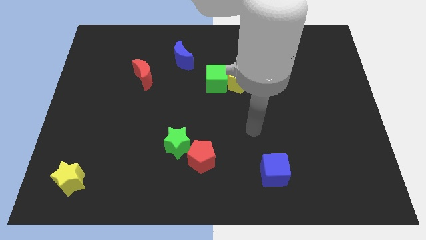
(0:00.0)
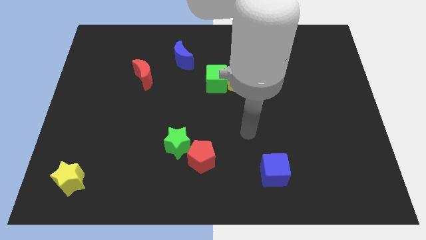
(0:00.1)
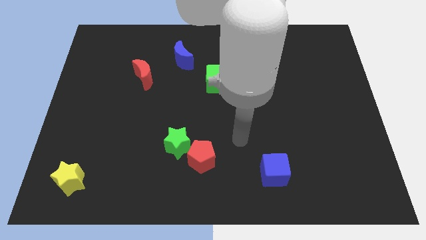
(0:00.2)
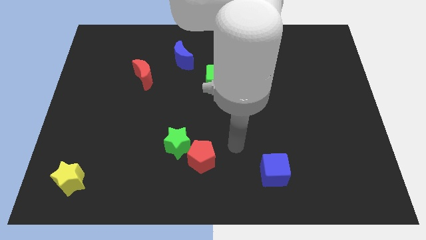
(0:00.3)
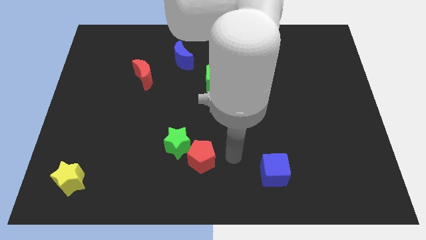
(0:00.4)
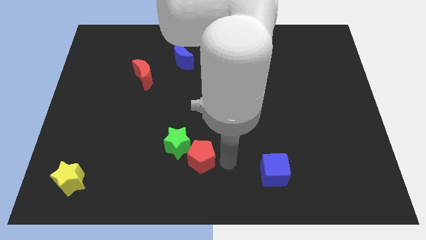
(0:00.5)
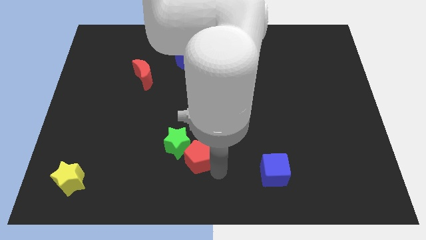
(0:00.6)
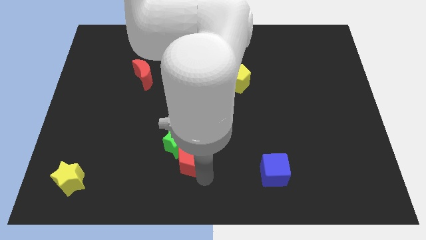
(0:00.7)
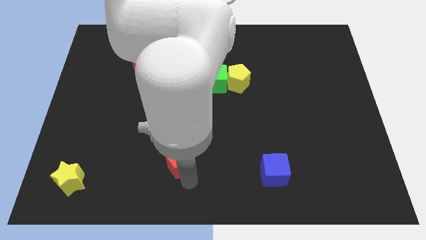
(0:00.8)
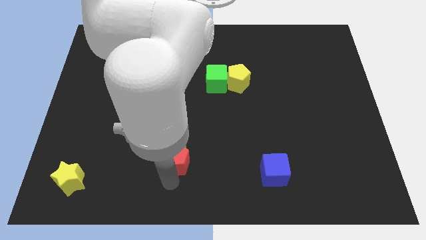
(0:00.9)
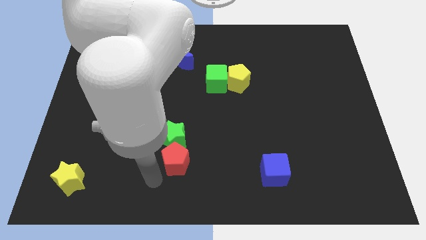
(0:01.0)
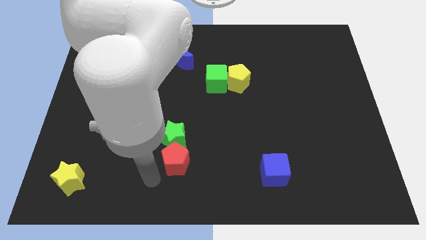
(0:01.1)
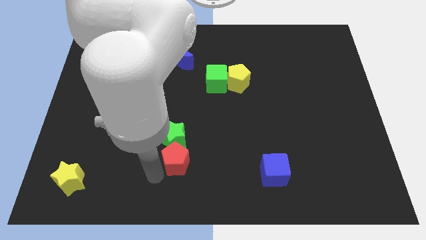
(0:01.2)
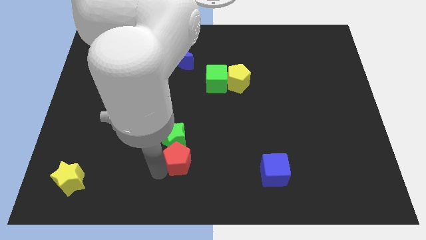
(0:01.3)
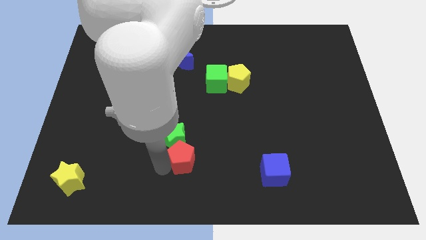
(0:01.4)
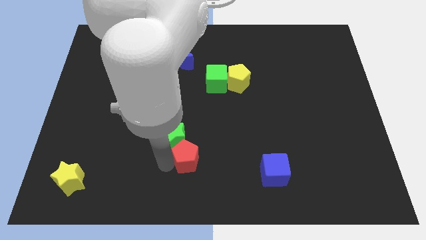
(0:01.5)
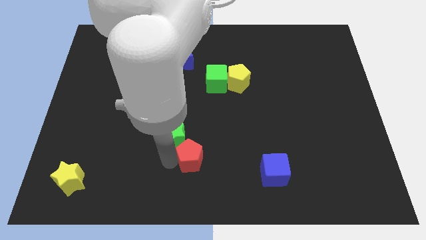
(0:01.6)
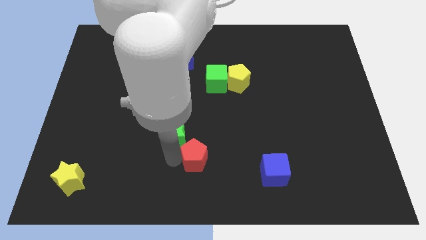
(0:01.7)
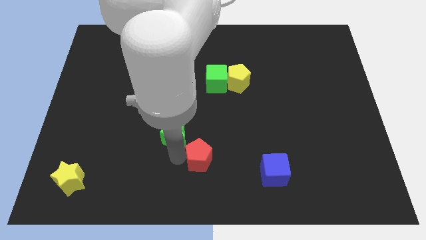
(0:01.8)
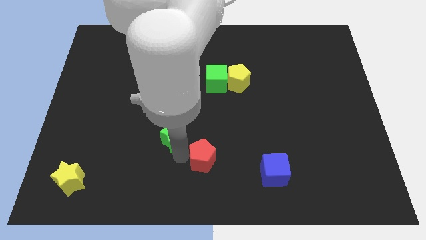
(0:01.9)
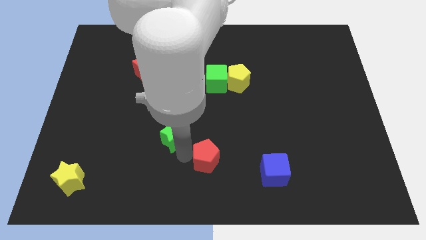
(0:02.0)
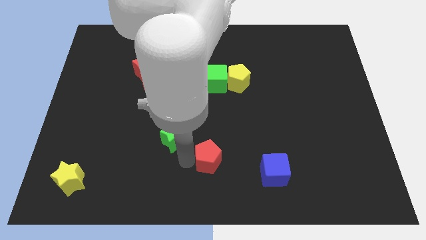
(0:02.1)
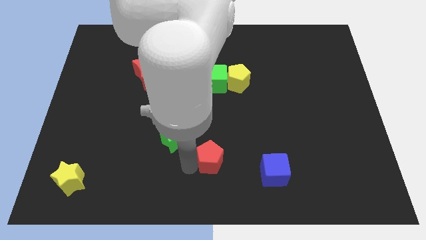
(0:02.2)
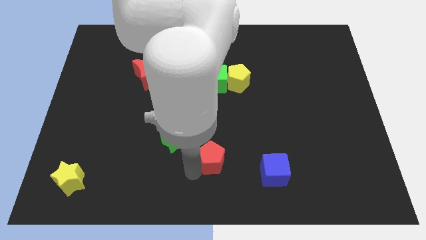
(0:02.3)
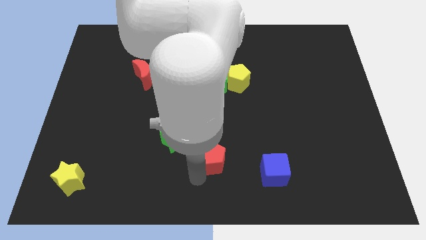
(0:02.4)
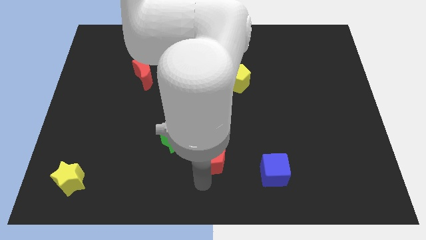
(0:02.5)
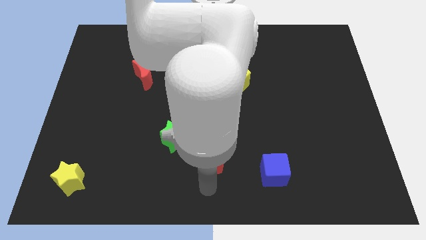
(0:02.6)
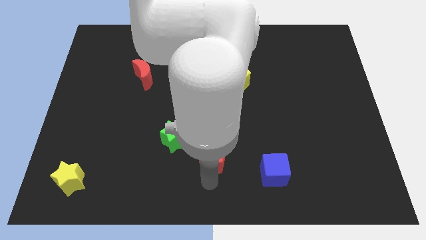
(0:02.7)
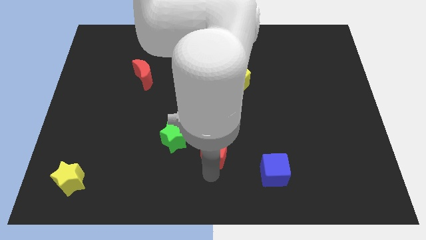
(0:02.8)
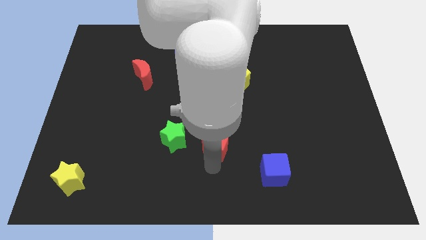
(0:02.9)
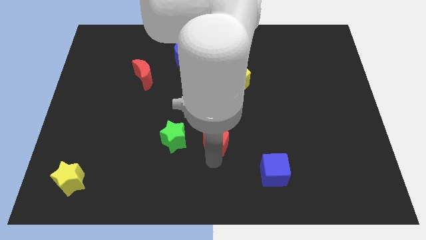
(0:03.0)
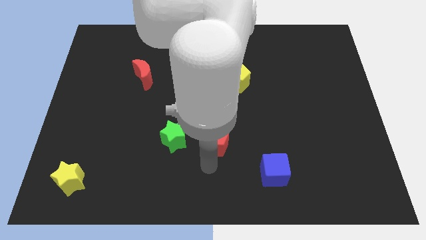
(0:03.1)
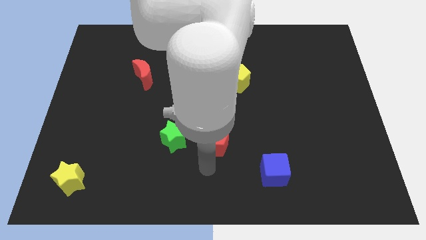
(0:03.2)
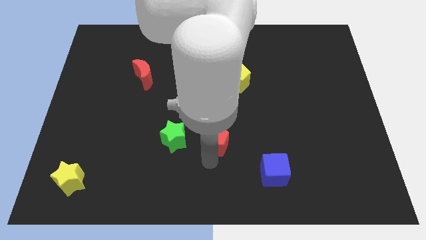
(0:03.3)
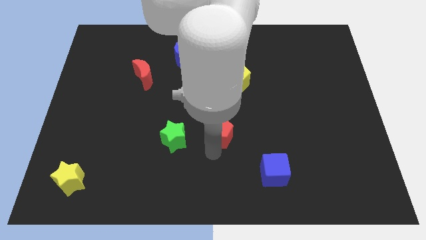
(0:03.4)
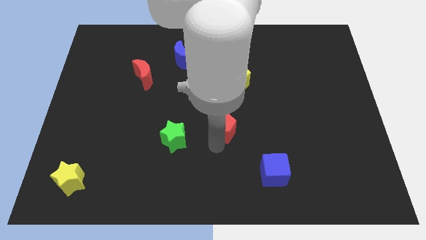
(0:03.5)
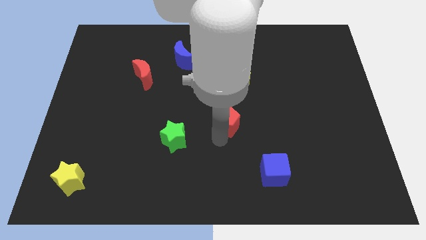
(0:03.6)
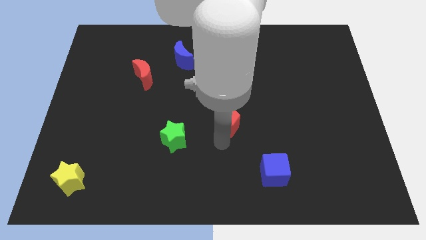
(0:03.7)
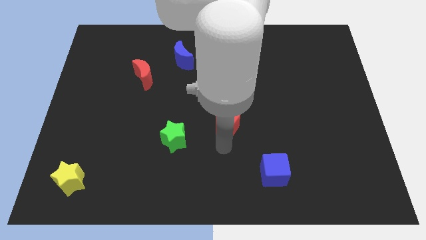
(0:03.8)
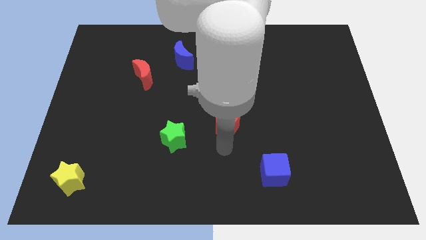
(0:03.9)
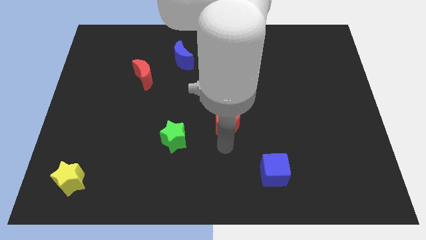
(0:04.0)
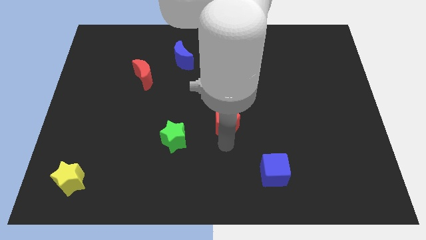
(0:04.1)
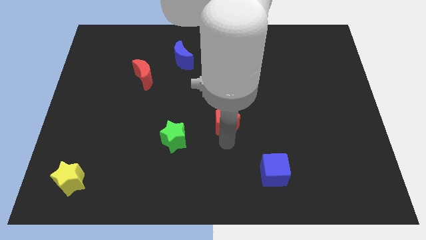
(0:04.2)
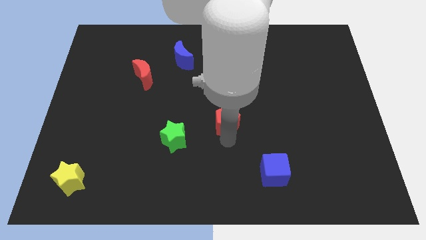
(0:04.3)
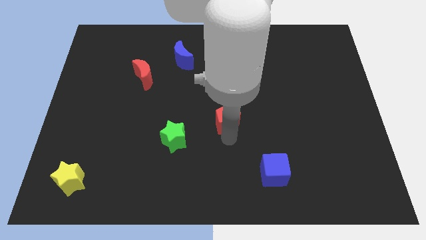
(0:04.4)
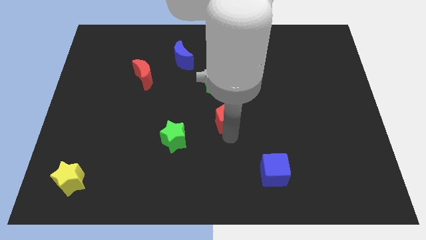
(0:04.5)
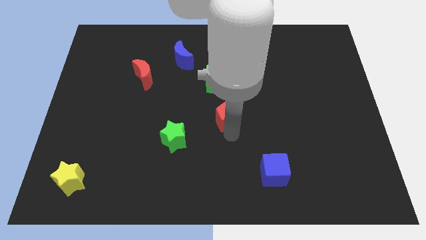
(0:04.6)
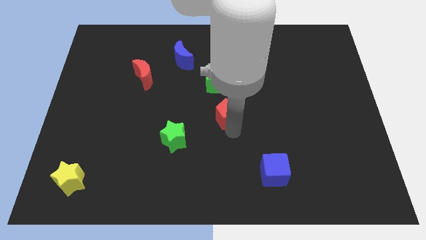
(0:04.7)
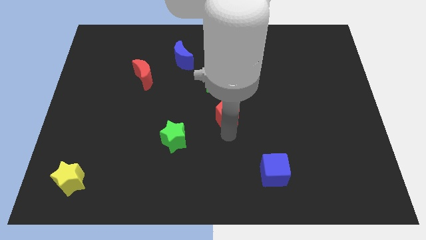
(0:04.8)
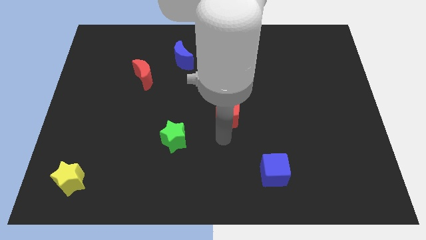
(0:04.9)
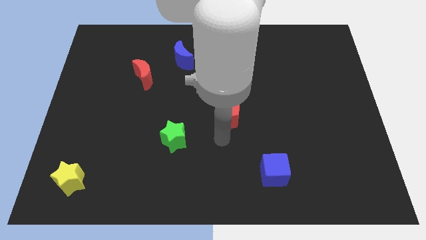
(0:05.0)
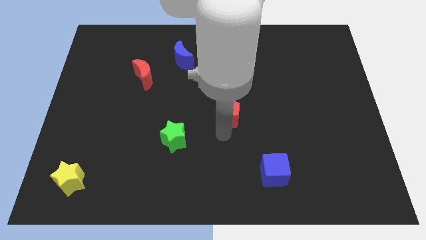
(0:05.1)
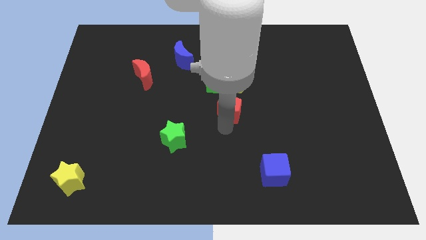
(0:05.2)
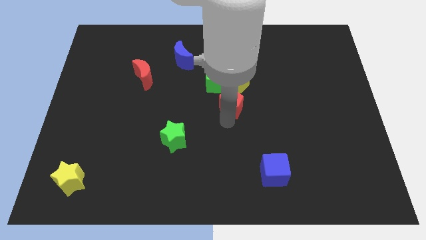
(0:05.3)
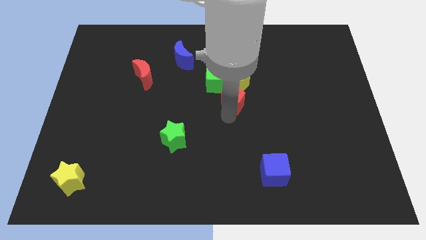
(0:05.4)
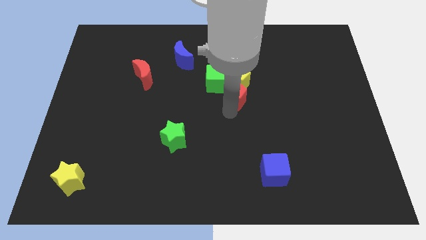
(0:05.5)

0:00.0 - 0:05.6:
push the red pentagon close to the yellow pentagon

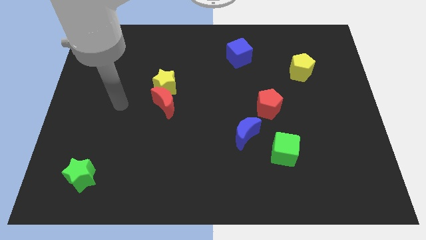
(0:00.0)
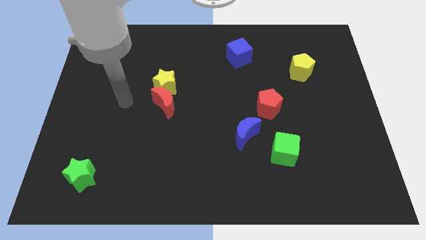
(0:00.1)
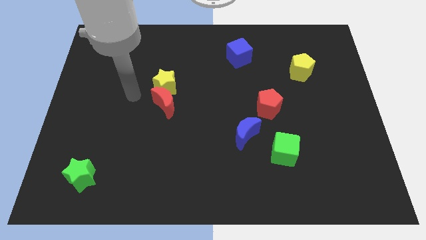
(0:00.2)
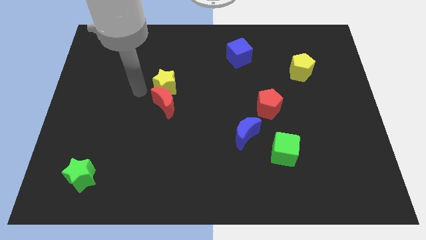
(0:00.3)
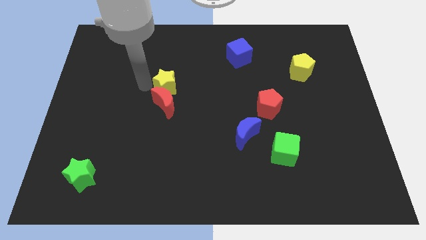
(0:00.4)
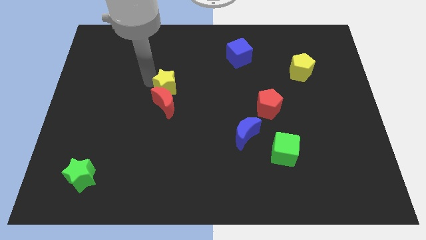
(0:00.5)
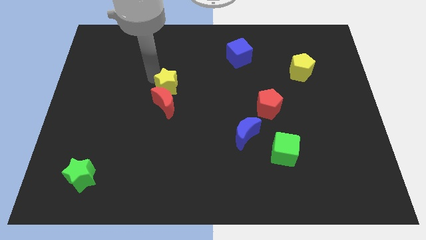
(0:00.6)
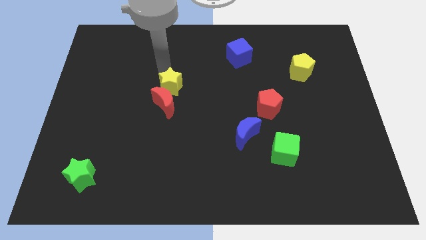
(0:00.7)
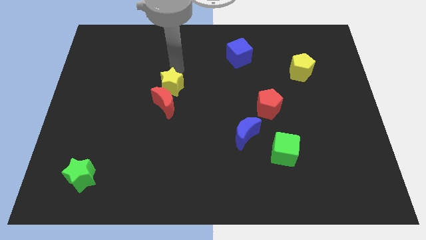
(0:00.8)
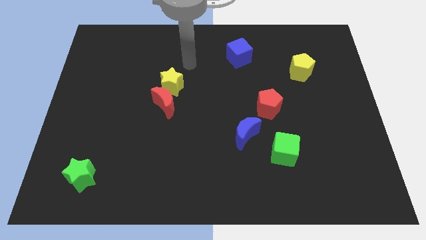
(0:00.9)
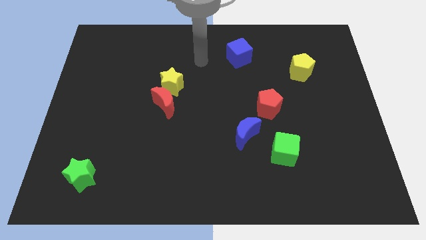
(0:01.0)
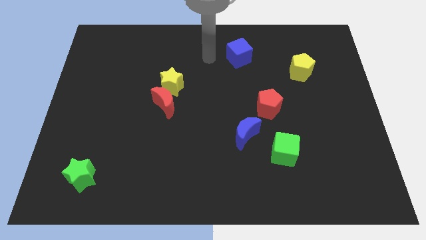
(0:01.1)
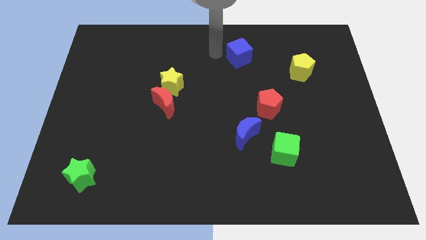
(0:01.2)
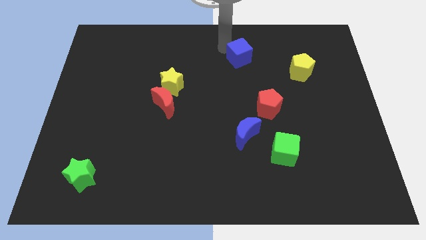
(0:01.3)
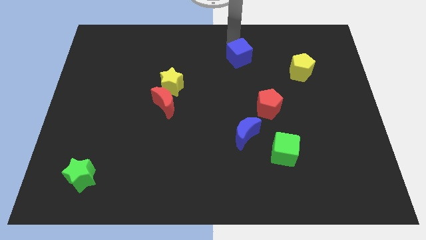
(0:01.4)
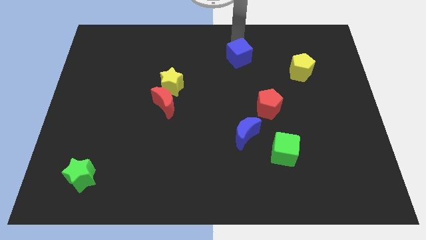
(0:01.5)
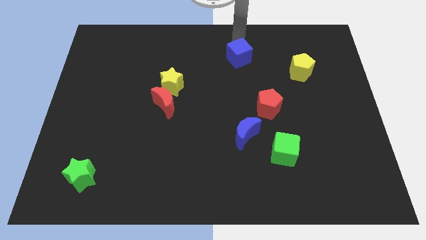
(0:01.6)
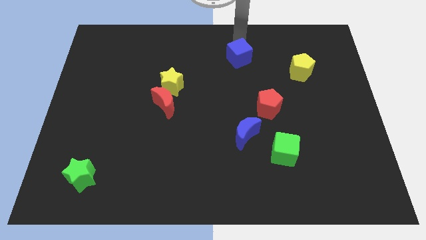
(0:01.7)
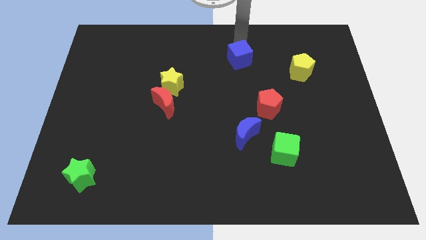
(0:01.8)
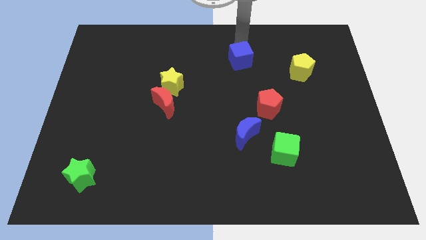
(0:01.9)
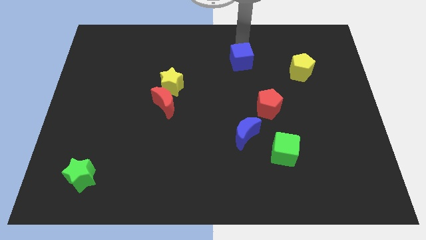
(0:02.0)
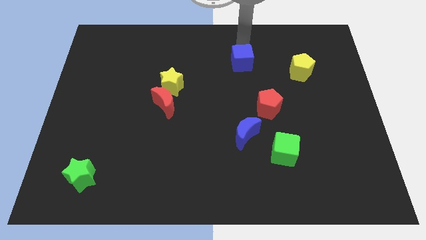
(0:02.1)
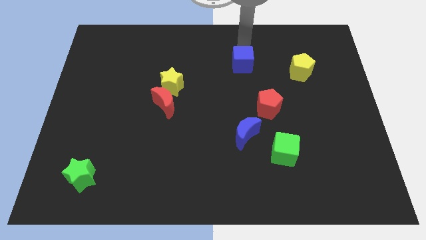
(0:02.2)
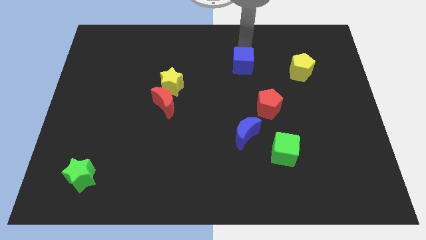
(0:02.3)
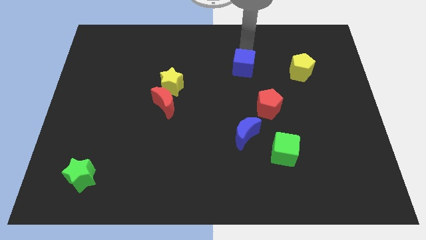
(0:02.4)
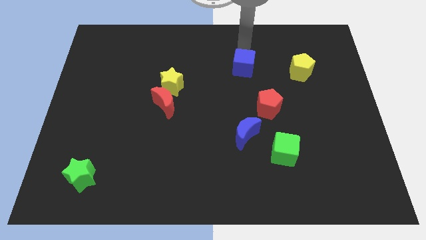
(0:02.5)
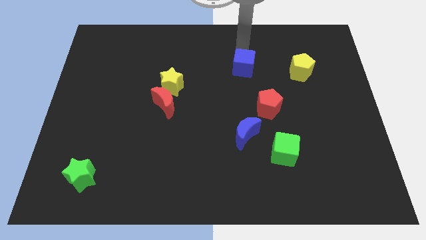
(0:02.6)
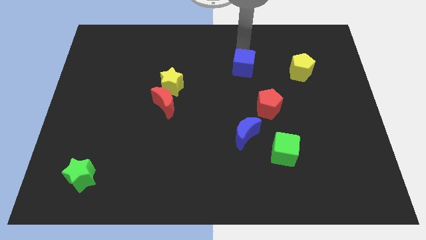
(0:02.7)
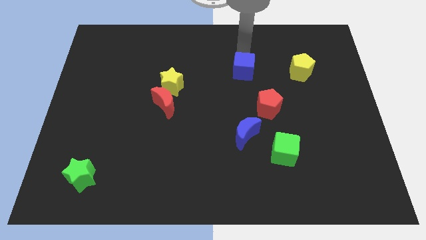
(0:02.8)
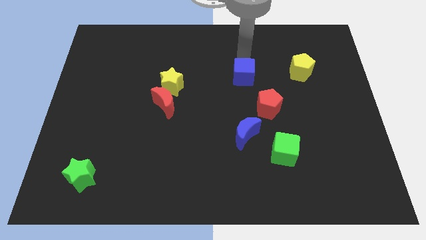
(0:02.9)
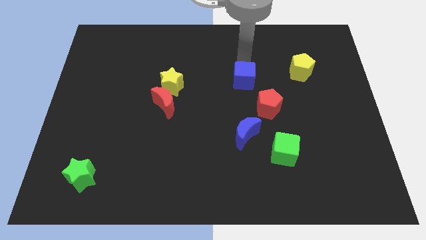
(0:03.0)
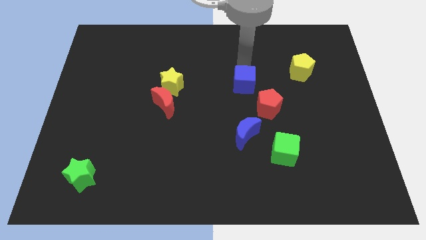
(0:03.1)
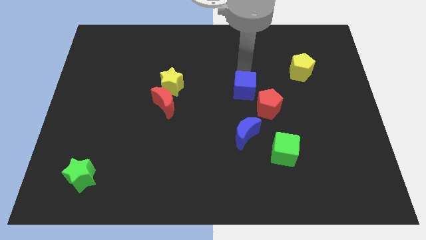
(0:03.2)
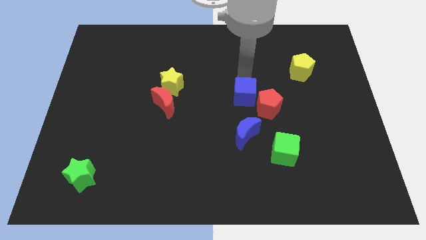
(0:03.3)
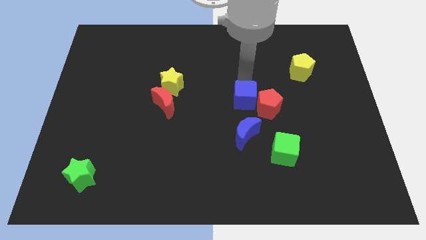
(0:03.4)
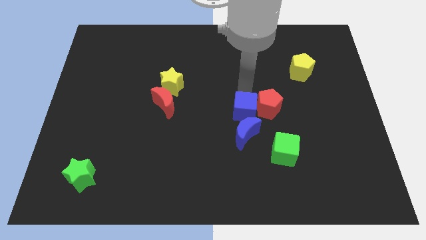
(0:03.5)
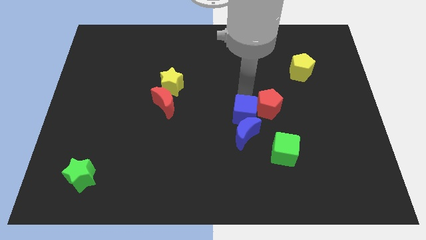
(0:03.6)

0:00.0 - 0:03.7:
put the blue cube close to the blue moon
